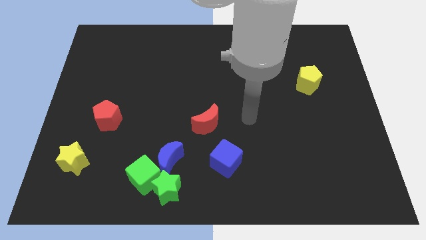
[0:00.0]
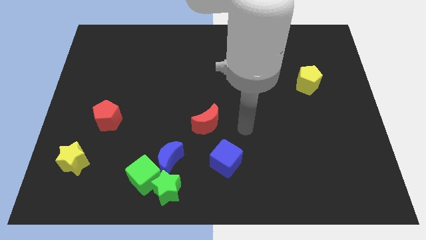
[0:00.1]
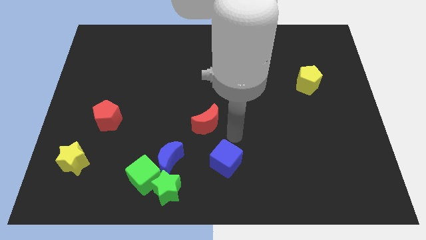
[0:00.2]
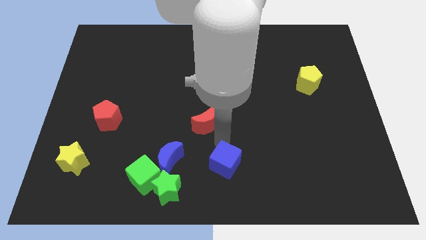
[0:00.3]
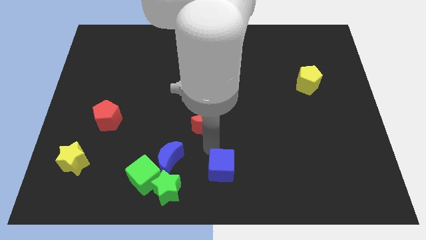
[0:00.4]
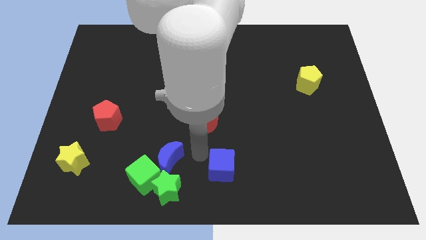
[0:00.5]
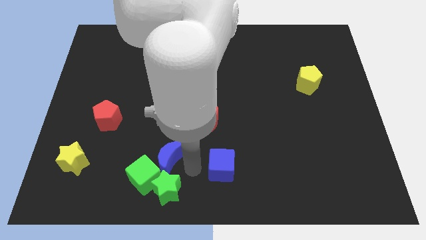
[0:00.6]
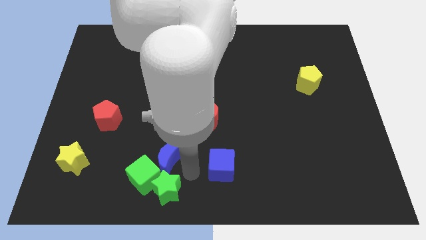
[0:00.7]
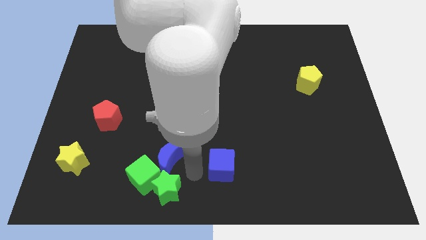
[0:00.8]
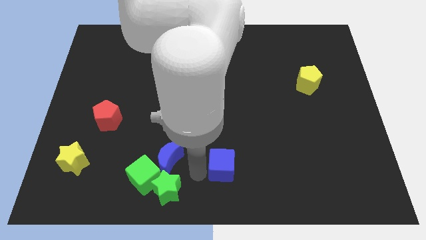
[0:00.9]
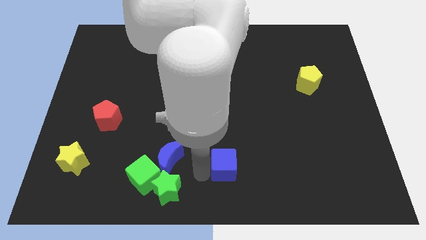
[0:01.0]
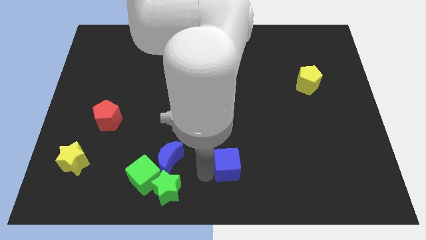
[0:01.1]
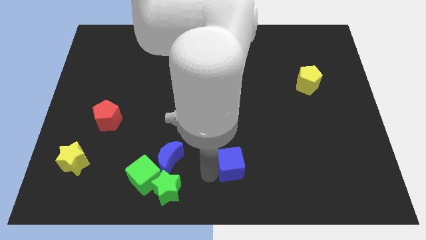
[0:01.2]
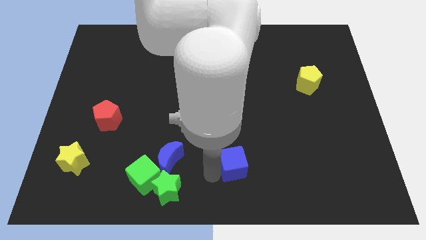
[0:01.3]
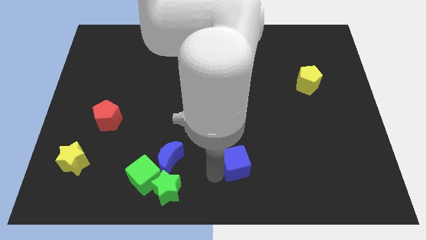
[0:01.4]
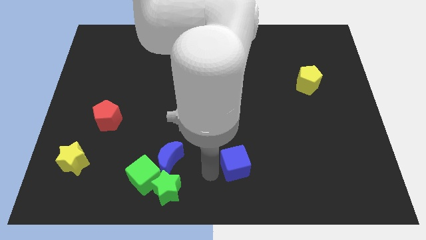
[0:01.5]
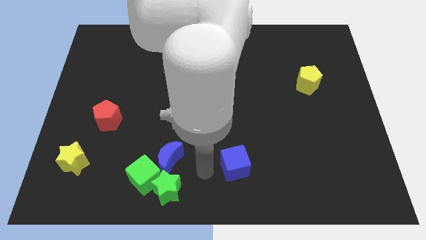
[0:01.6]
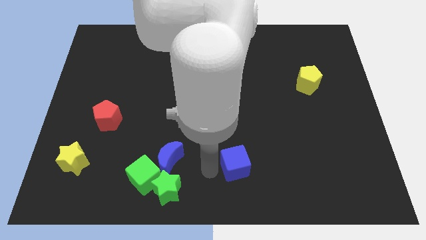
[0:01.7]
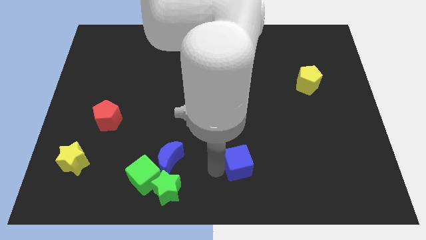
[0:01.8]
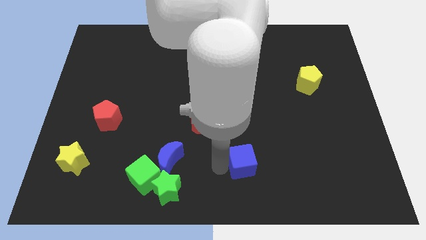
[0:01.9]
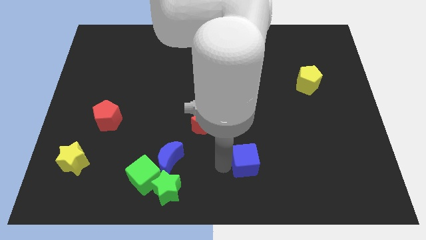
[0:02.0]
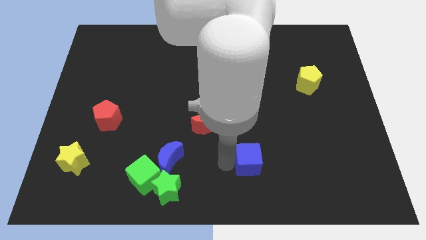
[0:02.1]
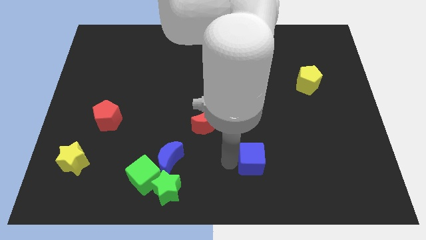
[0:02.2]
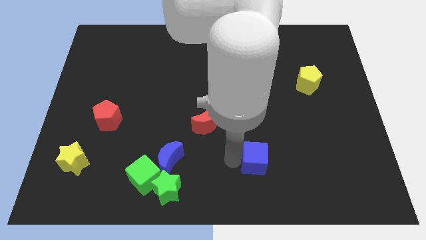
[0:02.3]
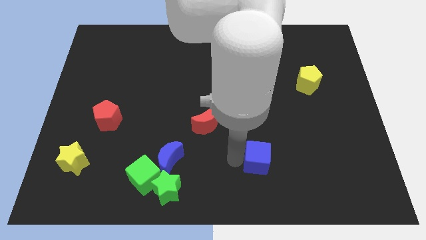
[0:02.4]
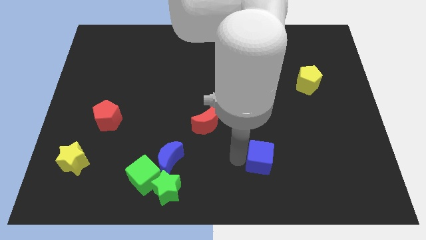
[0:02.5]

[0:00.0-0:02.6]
push the blue cube a bit to the right

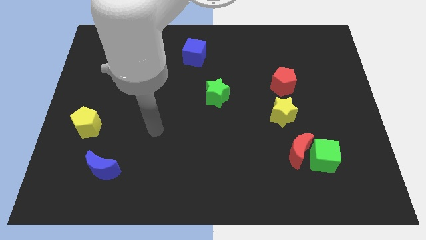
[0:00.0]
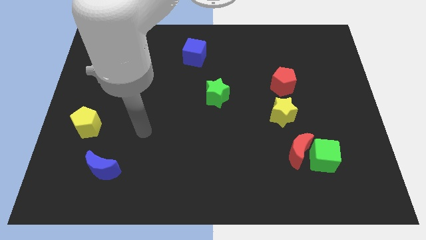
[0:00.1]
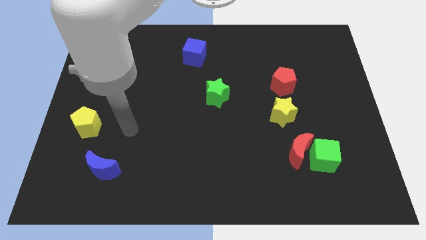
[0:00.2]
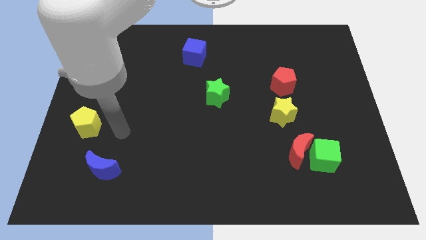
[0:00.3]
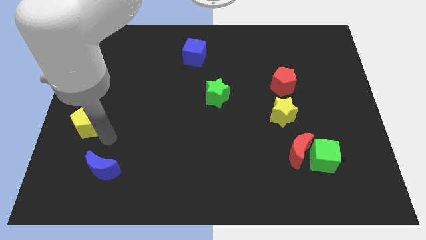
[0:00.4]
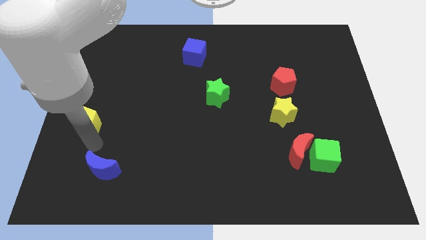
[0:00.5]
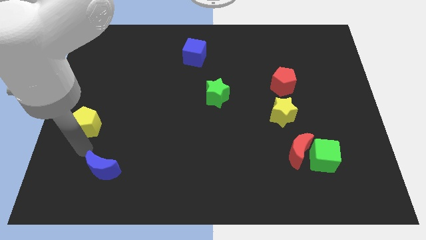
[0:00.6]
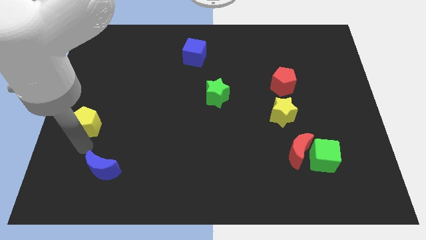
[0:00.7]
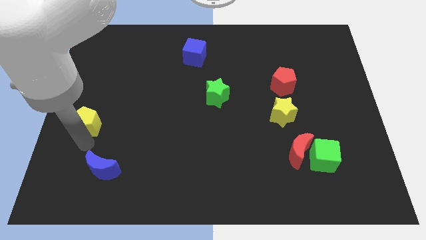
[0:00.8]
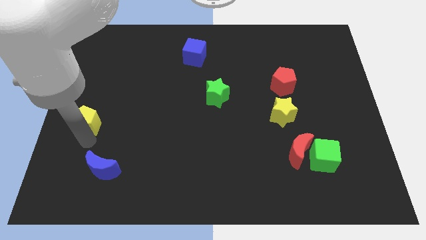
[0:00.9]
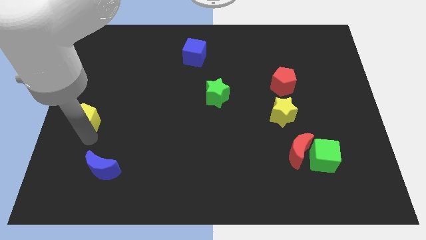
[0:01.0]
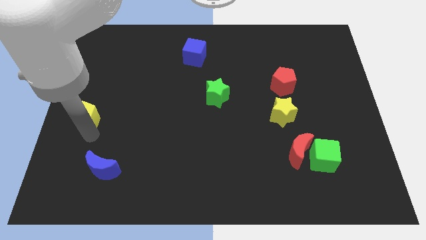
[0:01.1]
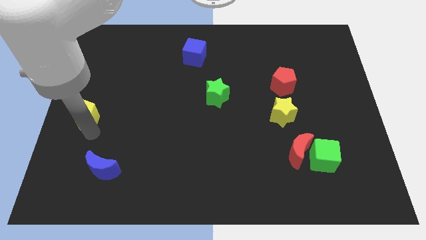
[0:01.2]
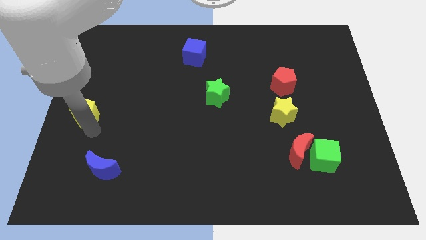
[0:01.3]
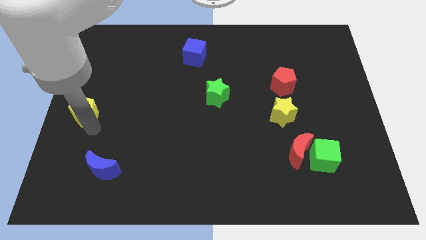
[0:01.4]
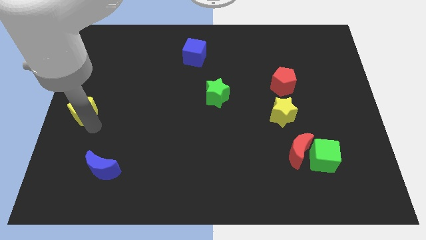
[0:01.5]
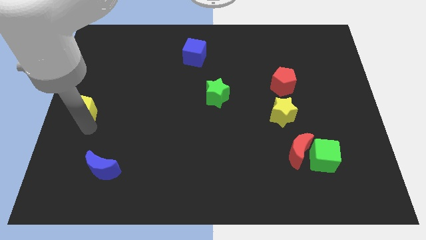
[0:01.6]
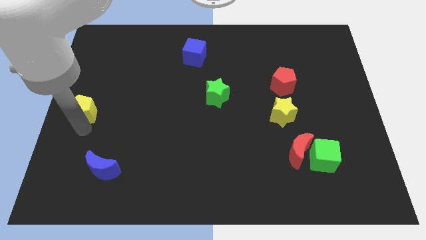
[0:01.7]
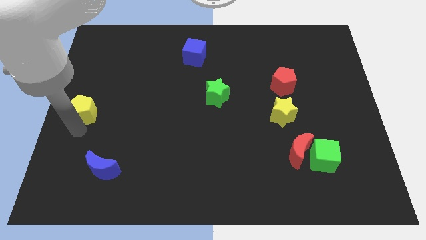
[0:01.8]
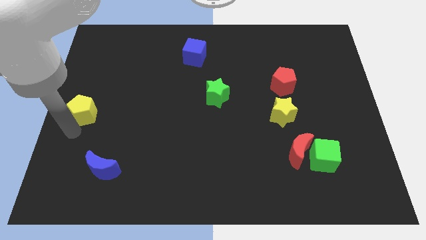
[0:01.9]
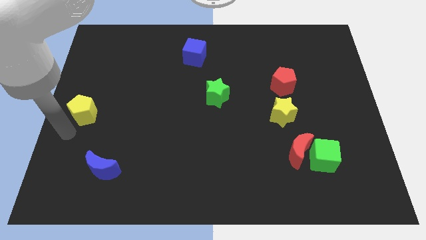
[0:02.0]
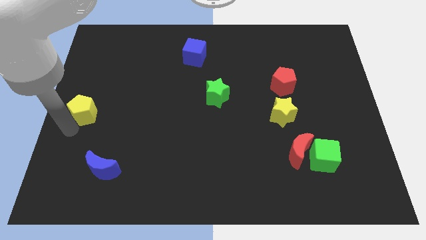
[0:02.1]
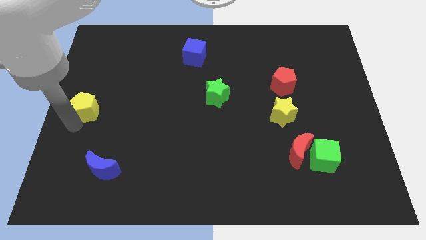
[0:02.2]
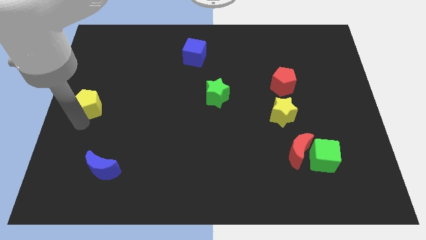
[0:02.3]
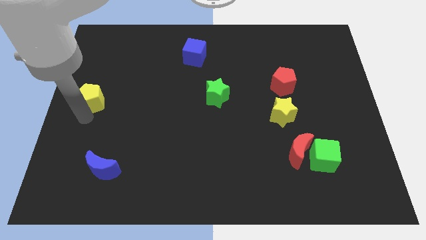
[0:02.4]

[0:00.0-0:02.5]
slide the yellow pentagon up a little bit

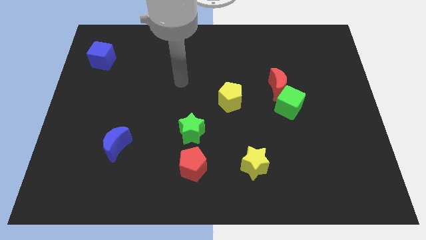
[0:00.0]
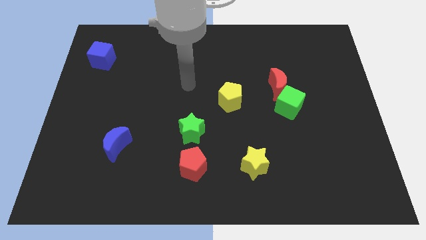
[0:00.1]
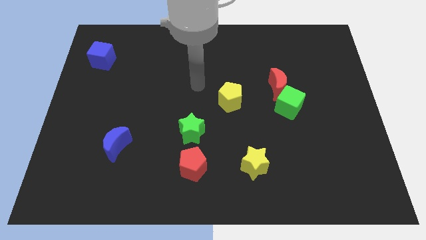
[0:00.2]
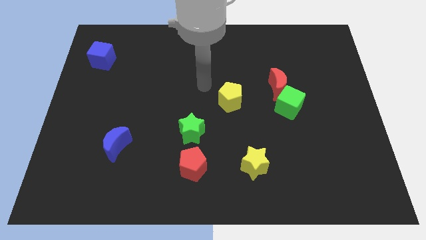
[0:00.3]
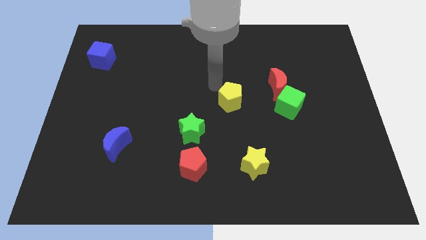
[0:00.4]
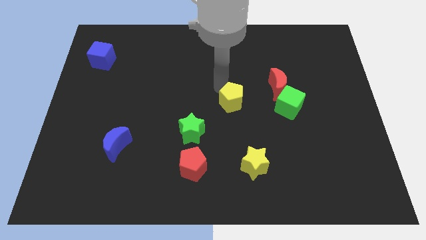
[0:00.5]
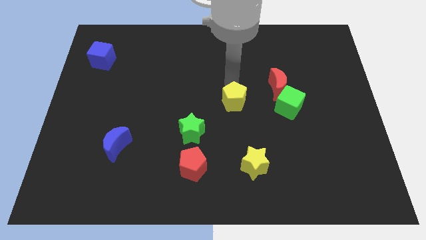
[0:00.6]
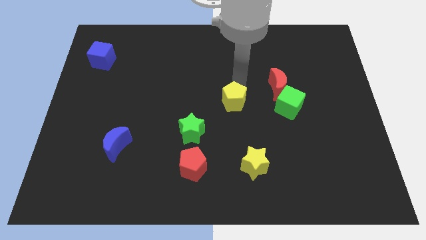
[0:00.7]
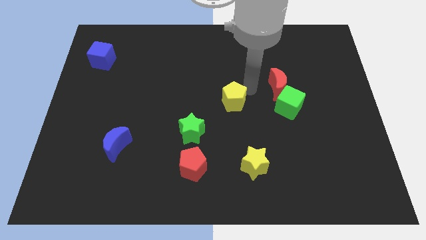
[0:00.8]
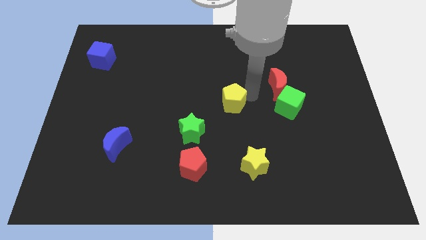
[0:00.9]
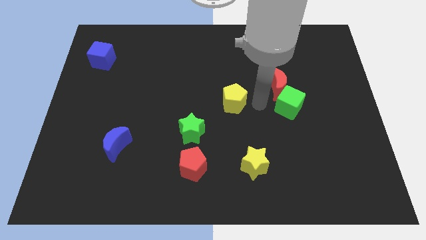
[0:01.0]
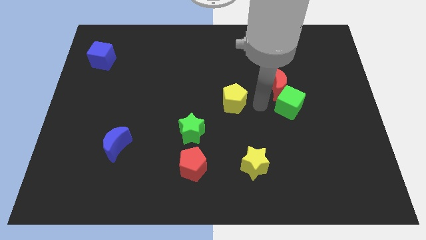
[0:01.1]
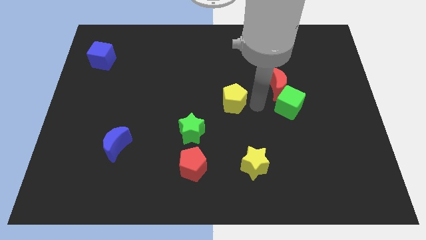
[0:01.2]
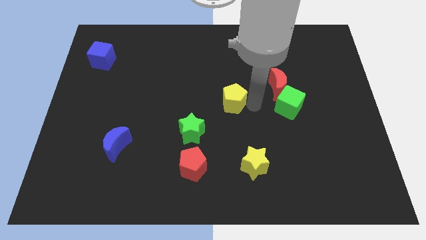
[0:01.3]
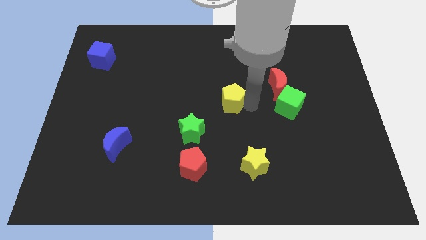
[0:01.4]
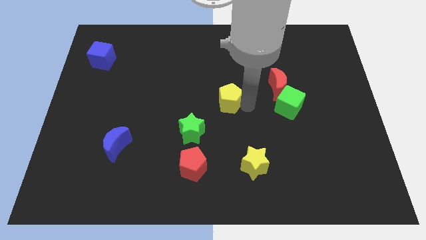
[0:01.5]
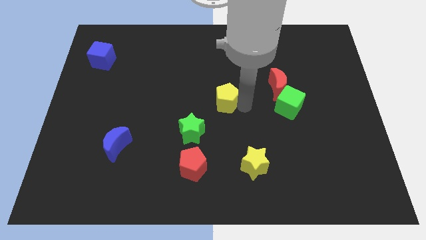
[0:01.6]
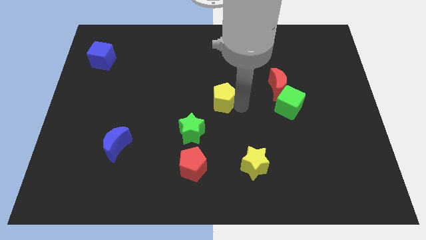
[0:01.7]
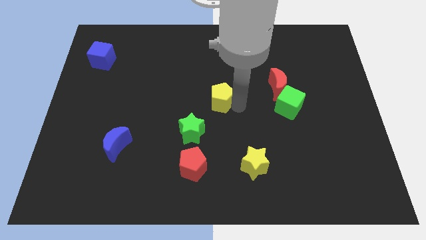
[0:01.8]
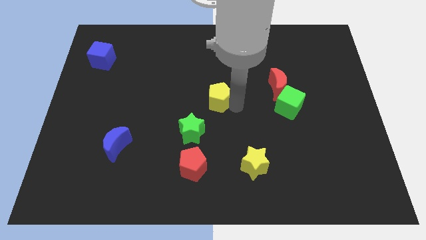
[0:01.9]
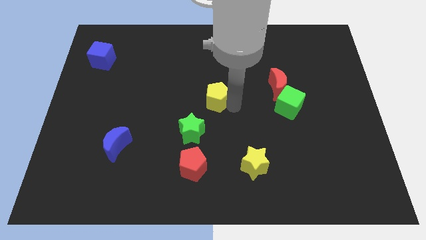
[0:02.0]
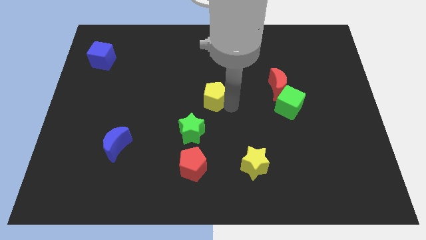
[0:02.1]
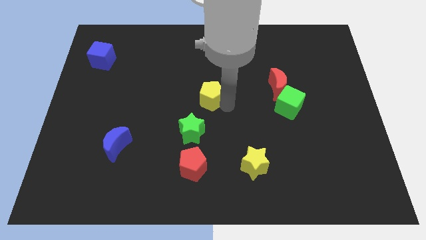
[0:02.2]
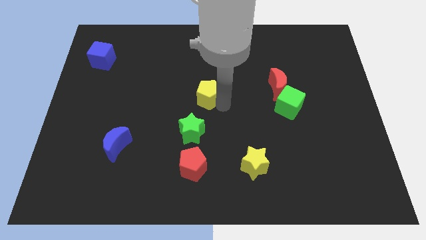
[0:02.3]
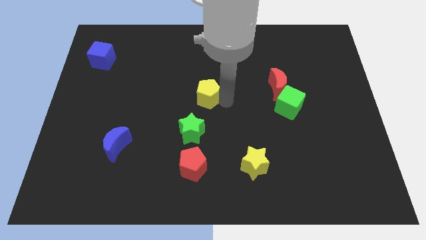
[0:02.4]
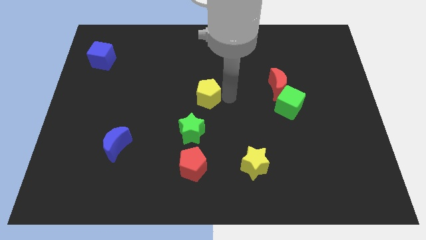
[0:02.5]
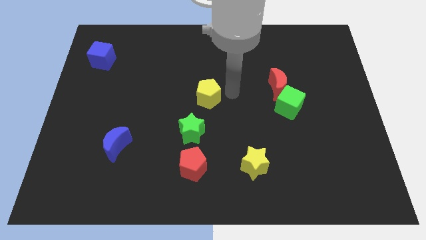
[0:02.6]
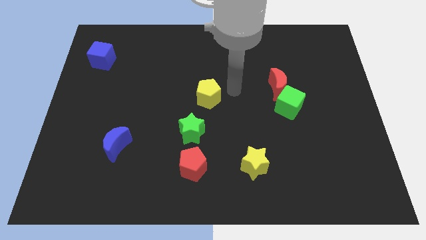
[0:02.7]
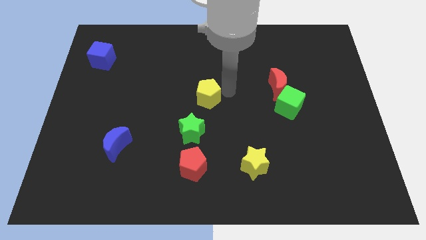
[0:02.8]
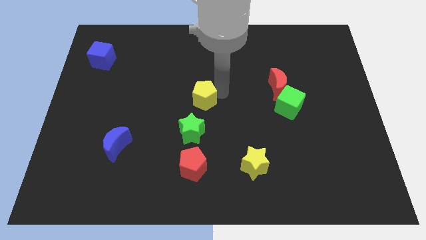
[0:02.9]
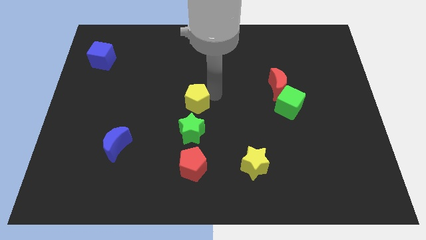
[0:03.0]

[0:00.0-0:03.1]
move the yellow pentagon to the left somewhat
